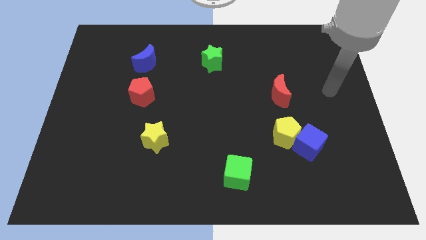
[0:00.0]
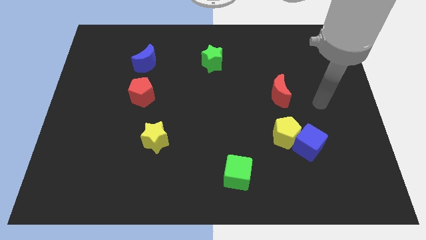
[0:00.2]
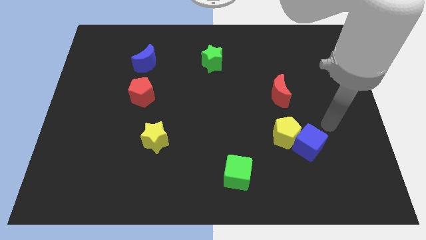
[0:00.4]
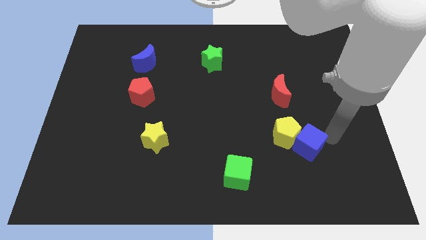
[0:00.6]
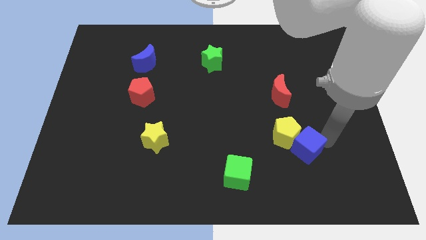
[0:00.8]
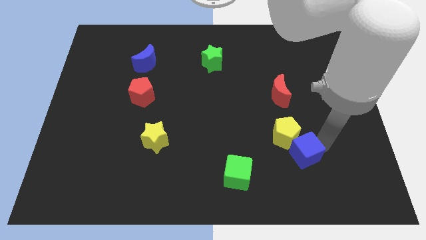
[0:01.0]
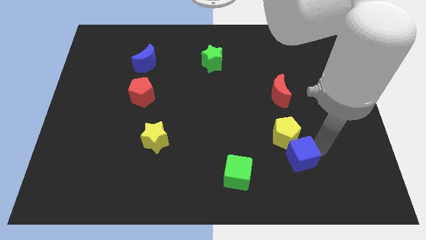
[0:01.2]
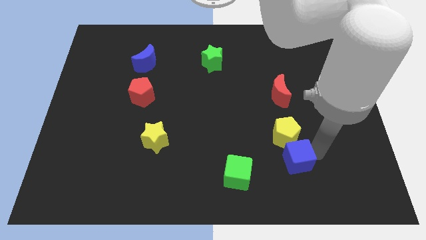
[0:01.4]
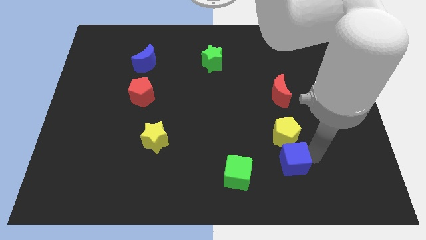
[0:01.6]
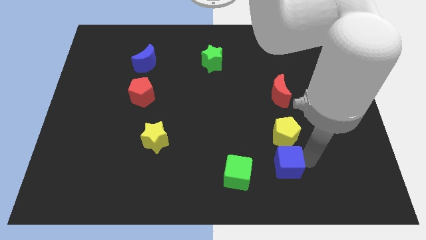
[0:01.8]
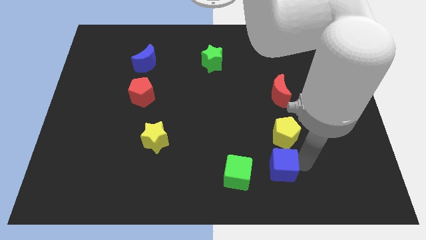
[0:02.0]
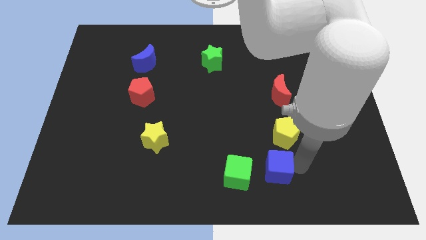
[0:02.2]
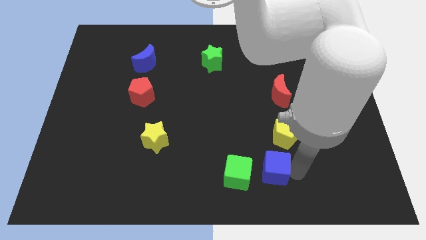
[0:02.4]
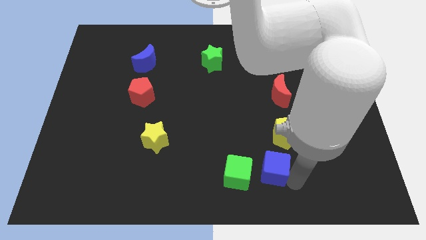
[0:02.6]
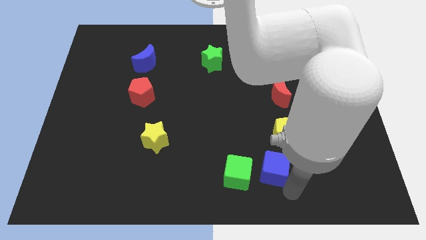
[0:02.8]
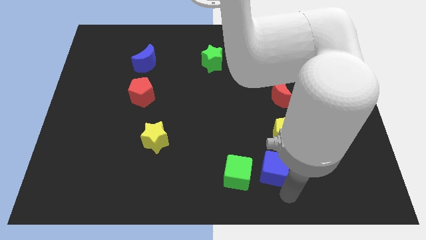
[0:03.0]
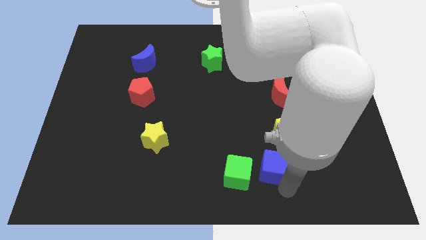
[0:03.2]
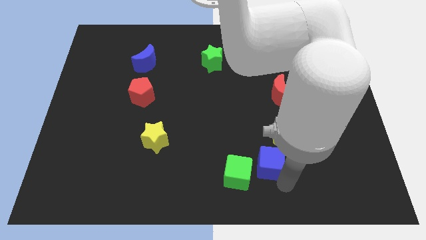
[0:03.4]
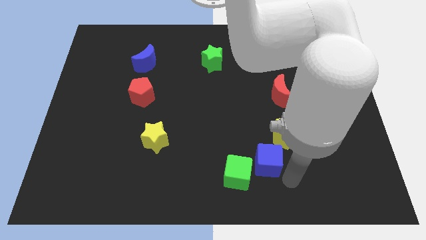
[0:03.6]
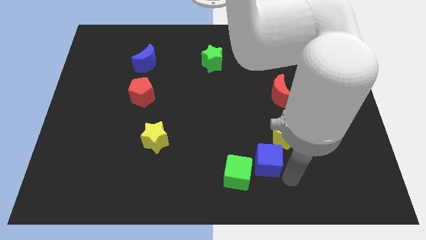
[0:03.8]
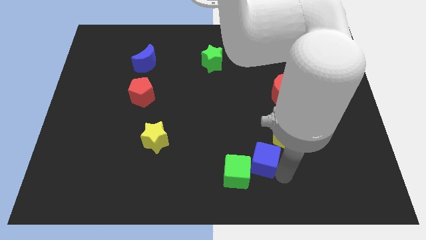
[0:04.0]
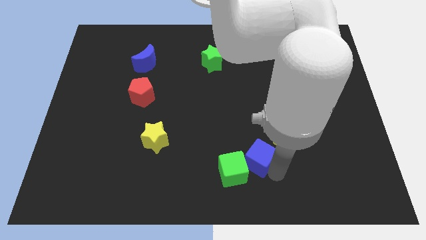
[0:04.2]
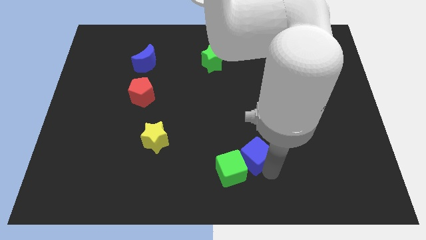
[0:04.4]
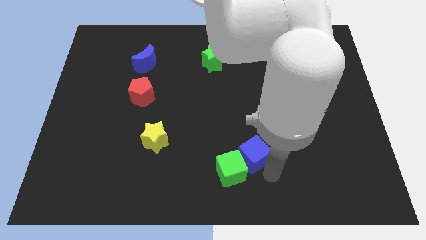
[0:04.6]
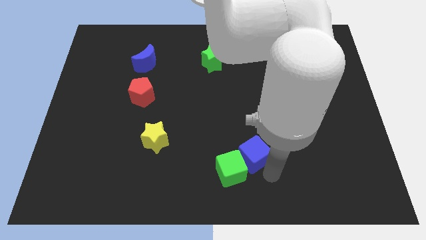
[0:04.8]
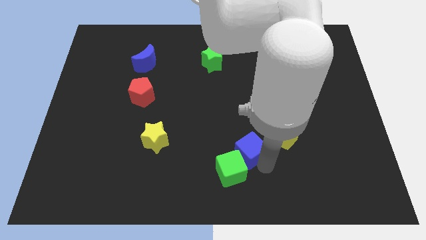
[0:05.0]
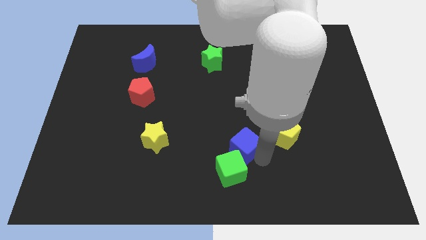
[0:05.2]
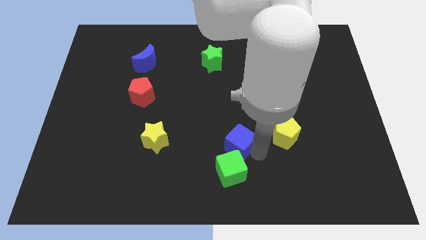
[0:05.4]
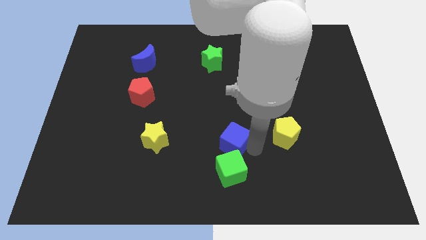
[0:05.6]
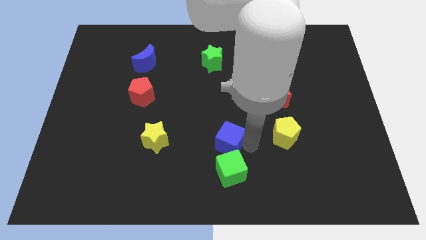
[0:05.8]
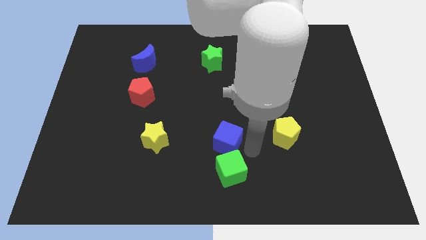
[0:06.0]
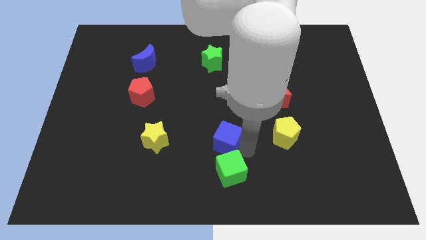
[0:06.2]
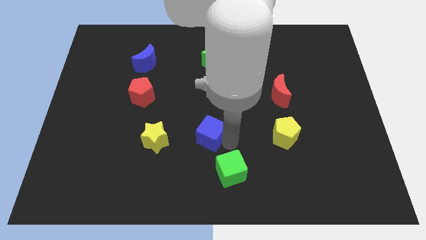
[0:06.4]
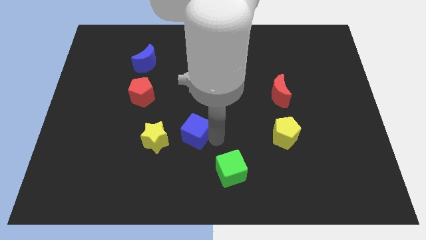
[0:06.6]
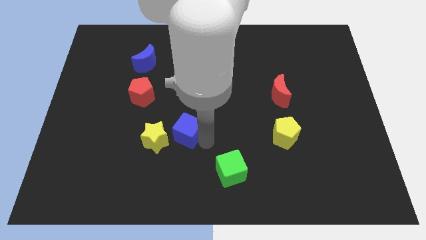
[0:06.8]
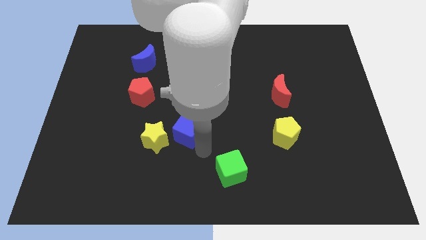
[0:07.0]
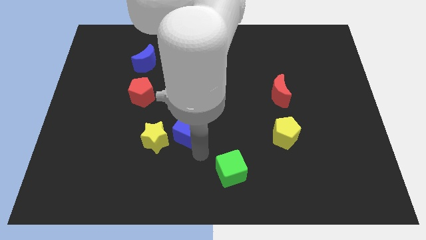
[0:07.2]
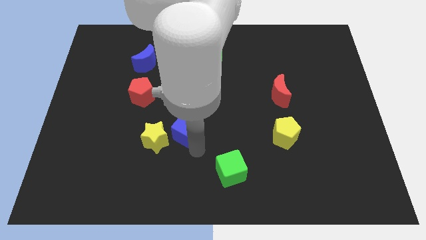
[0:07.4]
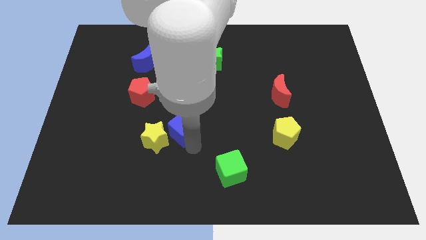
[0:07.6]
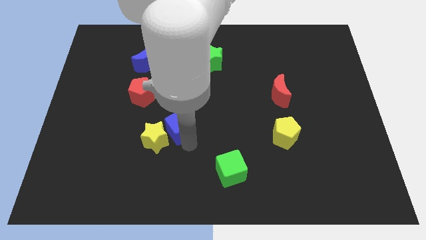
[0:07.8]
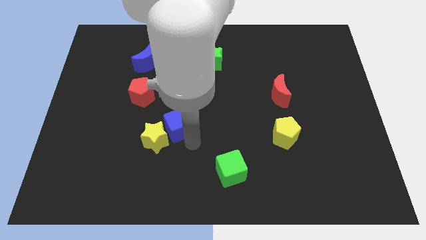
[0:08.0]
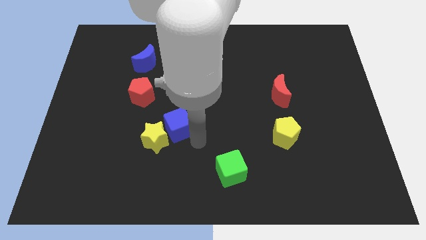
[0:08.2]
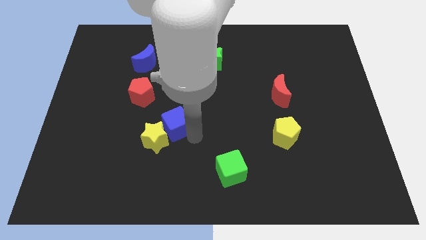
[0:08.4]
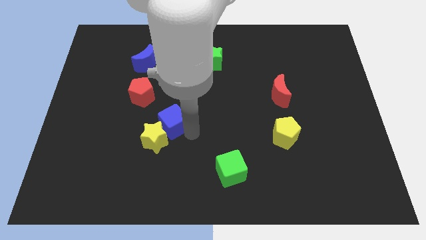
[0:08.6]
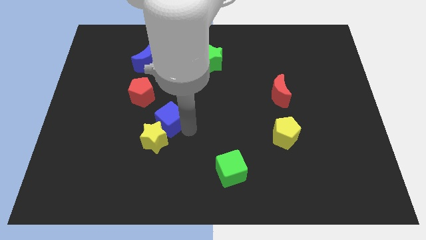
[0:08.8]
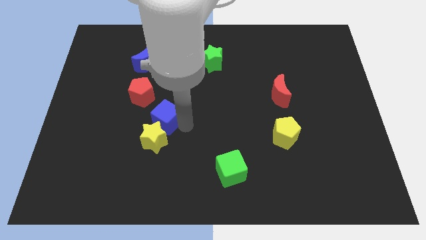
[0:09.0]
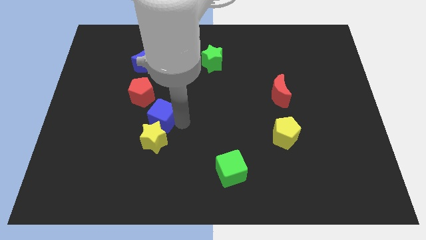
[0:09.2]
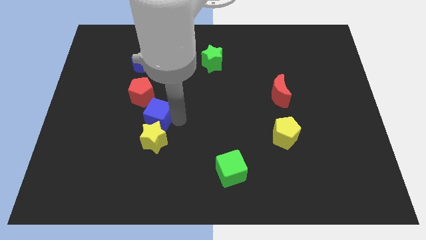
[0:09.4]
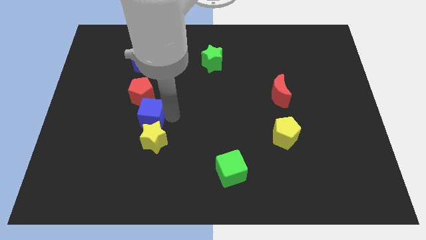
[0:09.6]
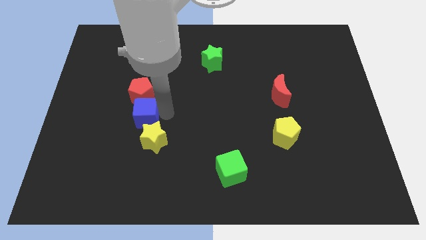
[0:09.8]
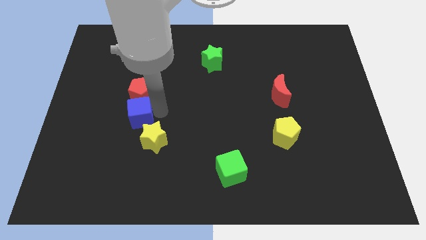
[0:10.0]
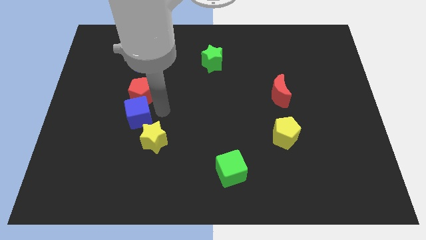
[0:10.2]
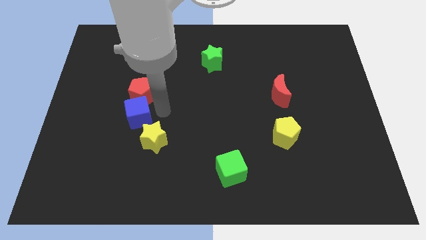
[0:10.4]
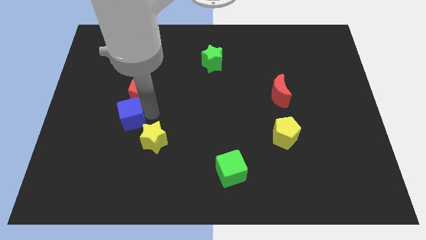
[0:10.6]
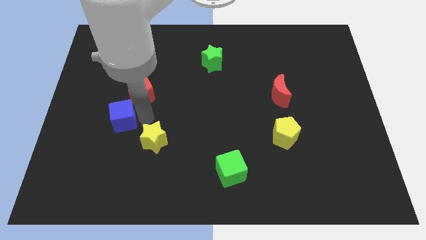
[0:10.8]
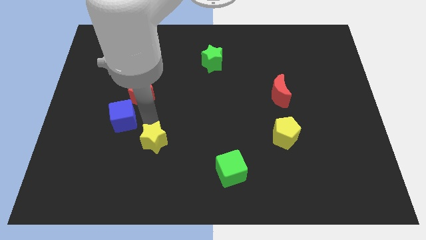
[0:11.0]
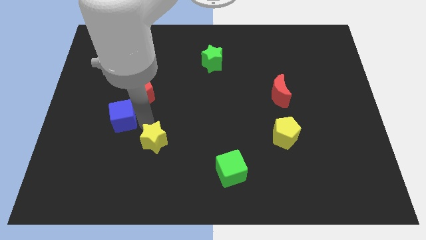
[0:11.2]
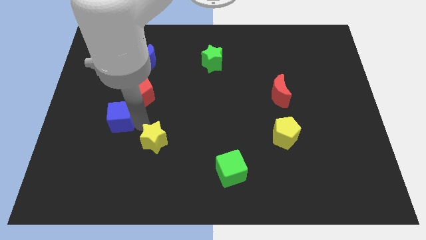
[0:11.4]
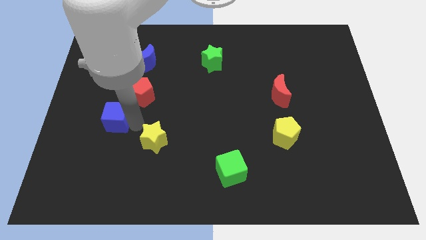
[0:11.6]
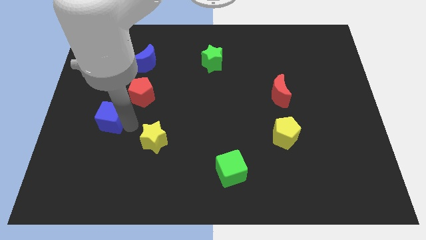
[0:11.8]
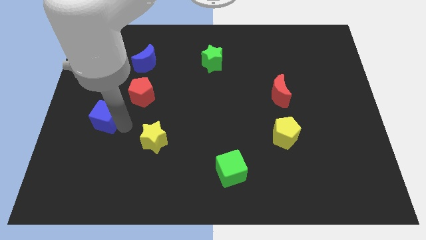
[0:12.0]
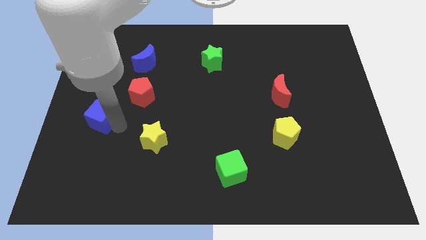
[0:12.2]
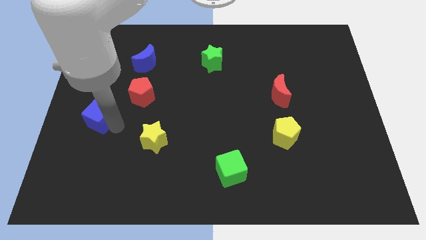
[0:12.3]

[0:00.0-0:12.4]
push the blue cube to the left side
